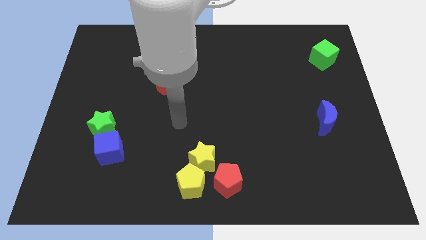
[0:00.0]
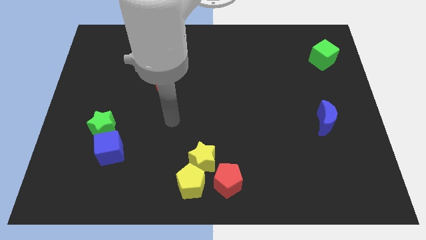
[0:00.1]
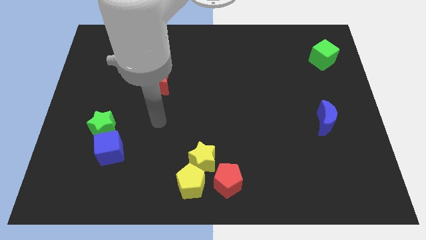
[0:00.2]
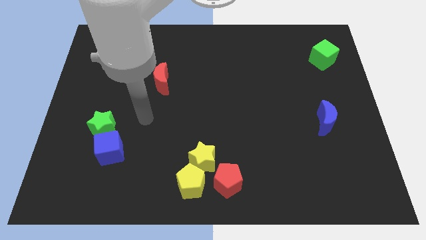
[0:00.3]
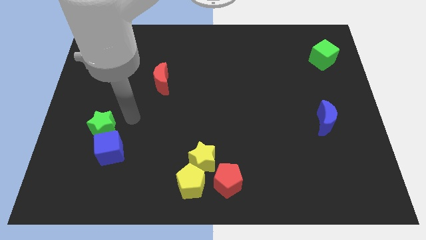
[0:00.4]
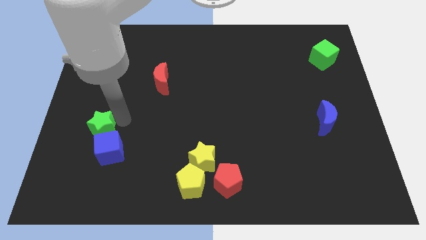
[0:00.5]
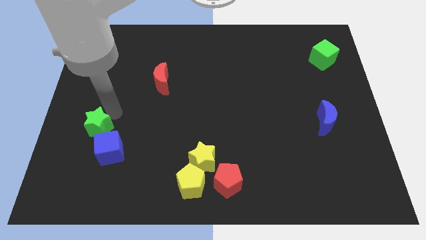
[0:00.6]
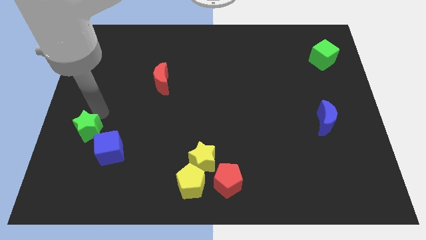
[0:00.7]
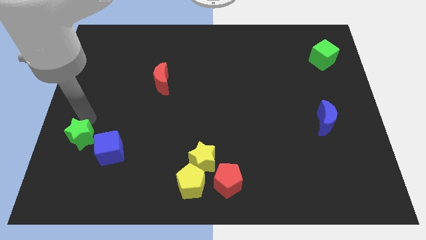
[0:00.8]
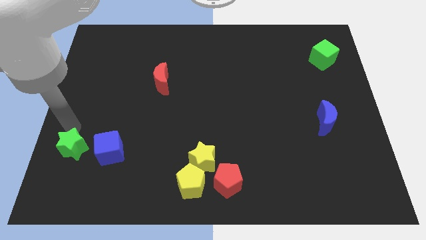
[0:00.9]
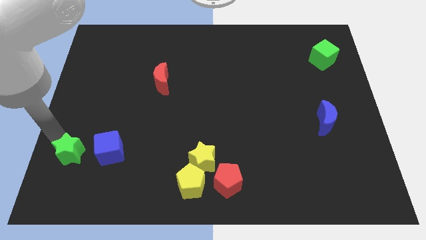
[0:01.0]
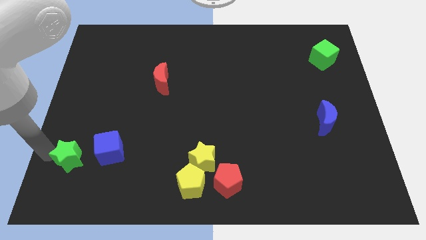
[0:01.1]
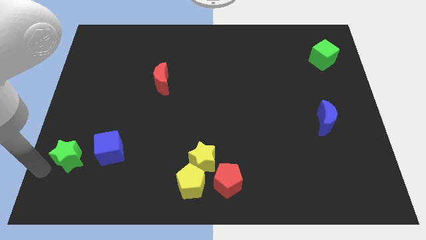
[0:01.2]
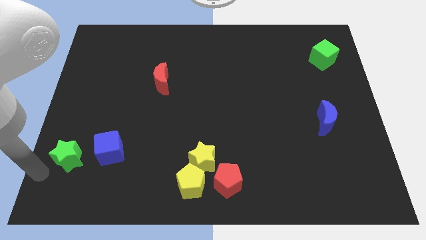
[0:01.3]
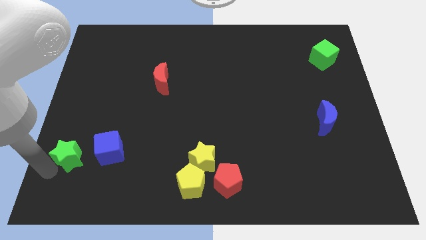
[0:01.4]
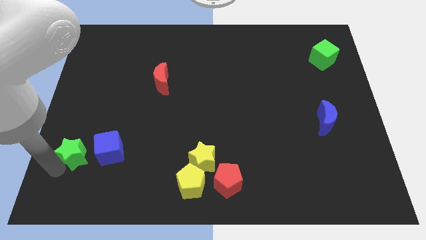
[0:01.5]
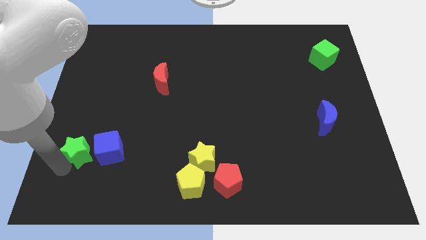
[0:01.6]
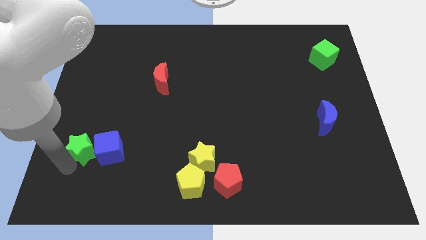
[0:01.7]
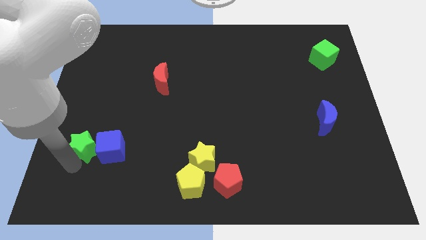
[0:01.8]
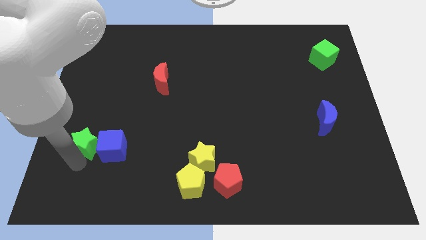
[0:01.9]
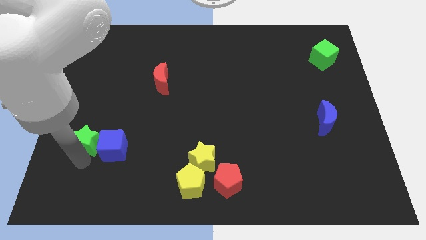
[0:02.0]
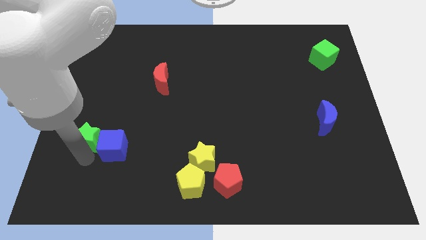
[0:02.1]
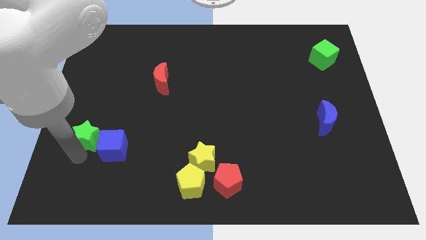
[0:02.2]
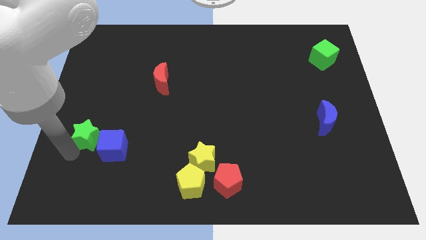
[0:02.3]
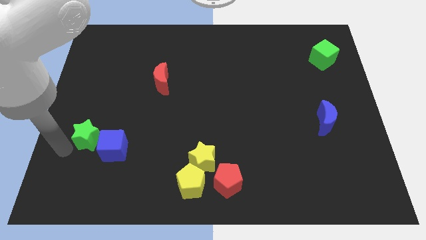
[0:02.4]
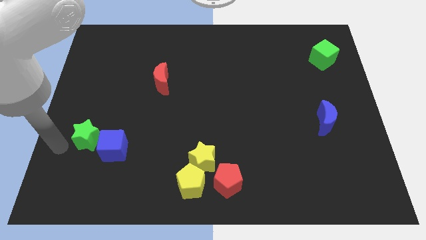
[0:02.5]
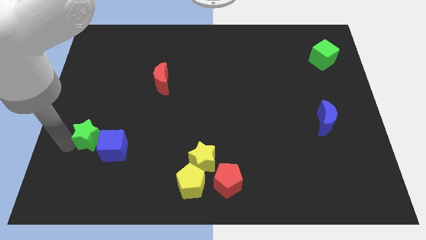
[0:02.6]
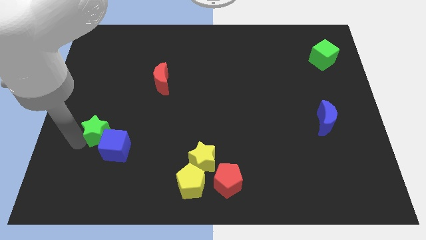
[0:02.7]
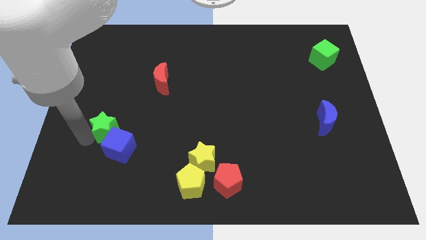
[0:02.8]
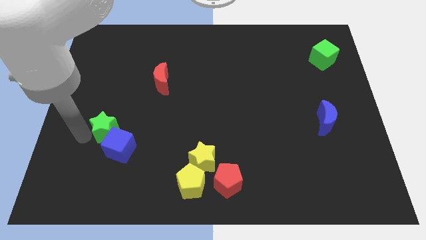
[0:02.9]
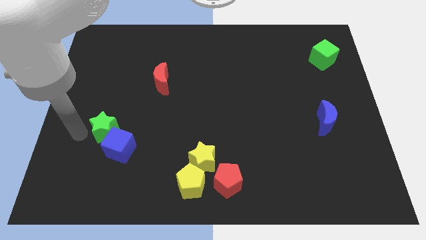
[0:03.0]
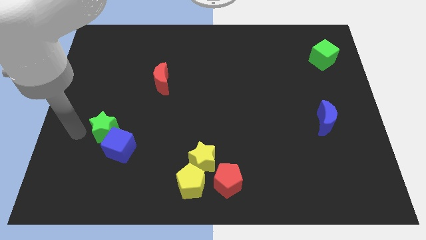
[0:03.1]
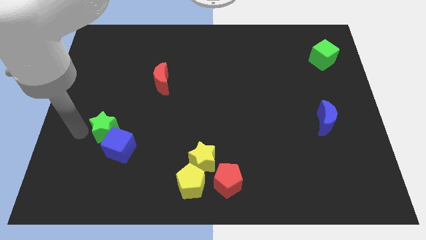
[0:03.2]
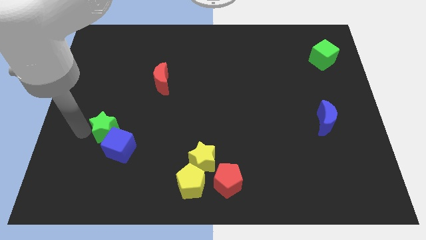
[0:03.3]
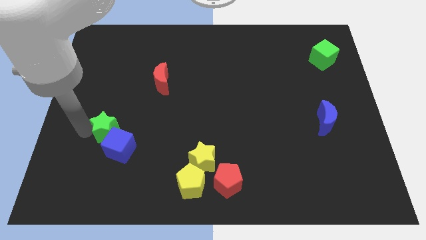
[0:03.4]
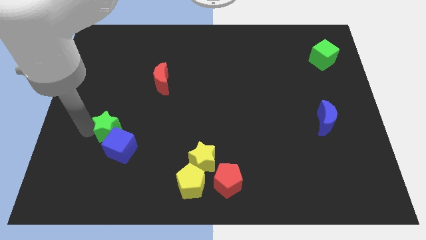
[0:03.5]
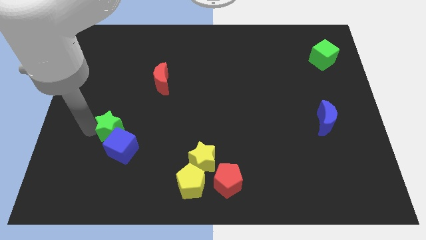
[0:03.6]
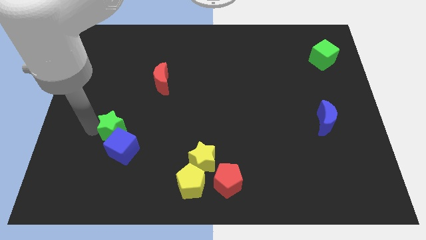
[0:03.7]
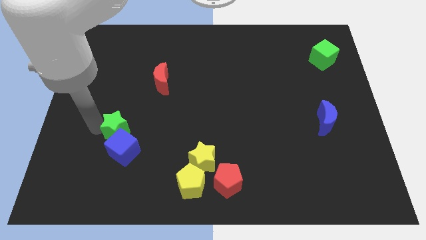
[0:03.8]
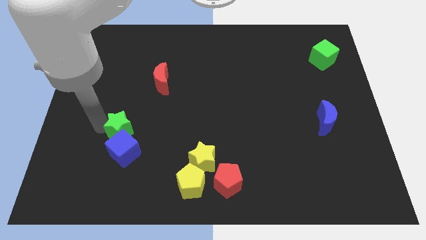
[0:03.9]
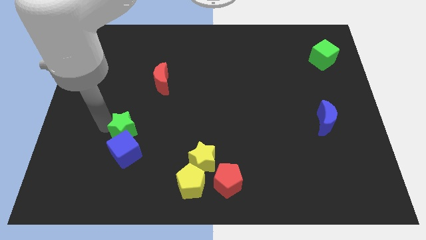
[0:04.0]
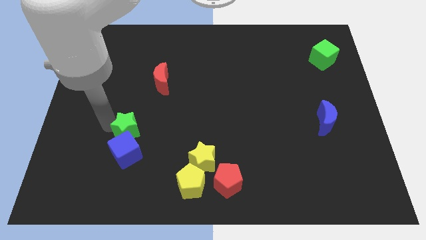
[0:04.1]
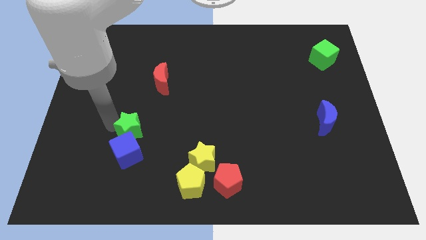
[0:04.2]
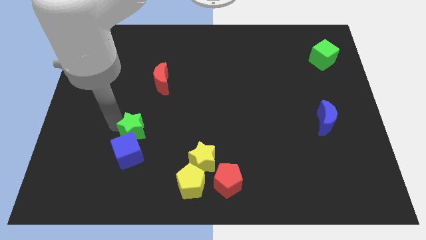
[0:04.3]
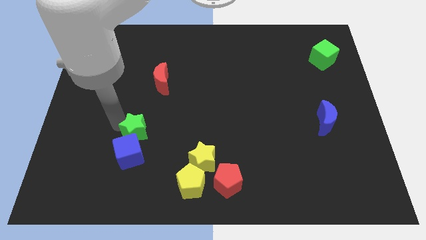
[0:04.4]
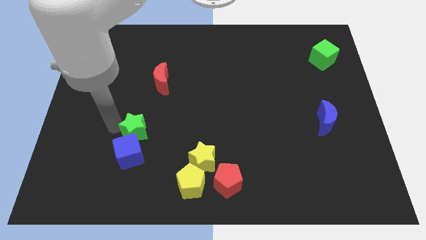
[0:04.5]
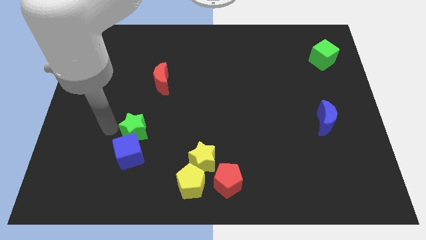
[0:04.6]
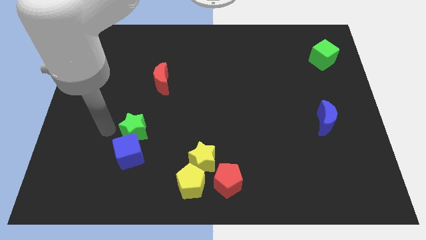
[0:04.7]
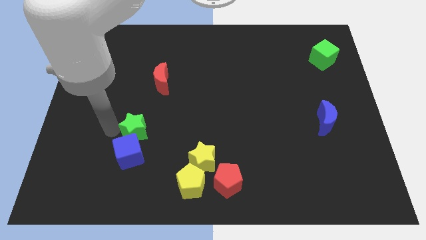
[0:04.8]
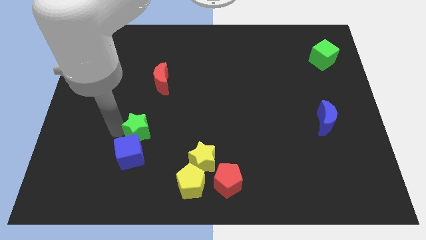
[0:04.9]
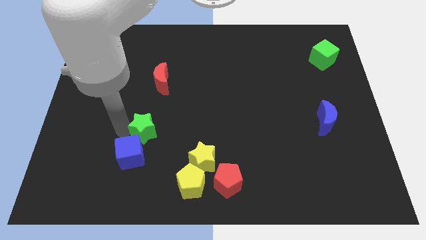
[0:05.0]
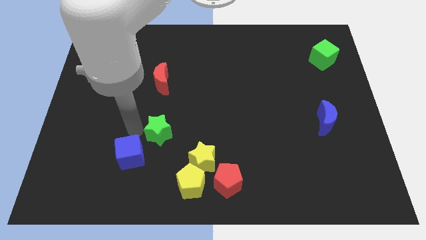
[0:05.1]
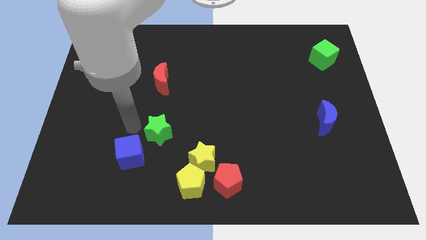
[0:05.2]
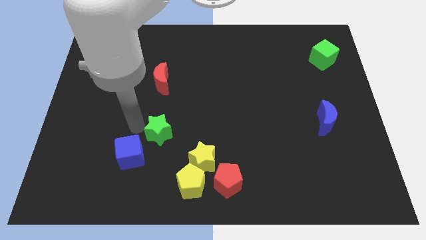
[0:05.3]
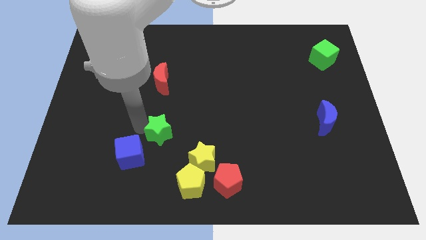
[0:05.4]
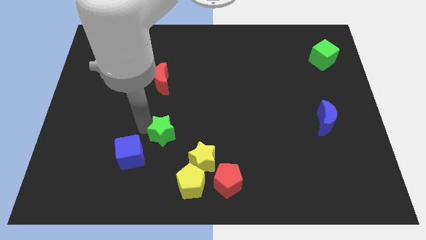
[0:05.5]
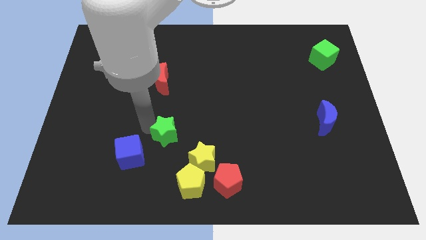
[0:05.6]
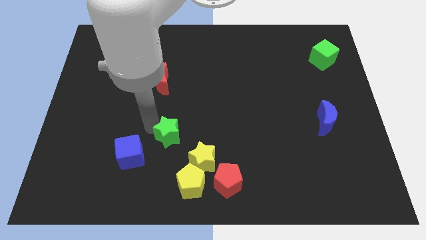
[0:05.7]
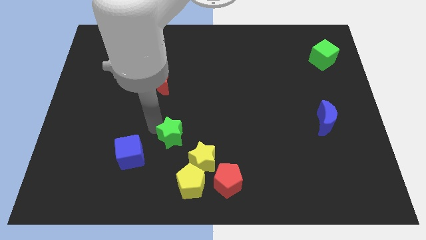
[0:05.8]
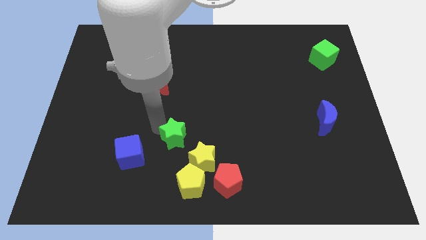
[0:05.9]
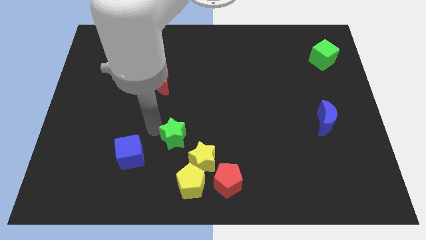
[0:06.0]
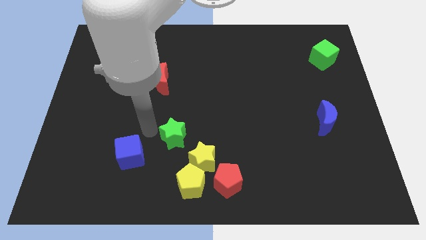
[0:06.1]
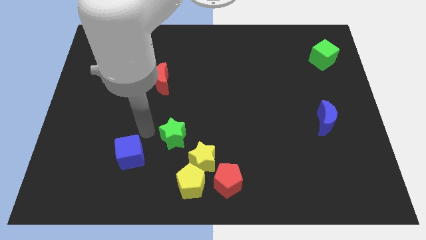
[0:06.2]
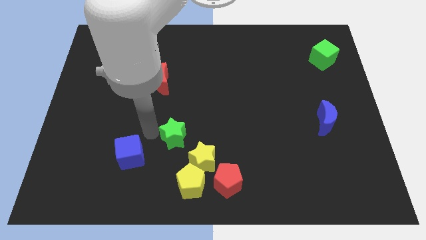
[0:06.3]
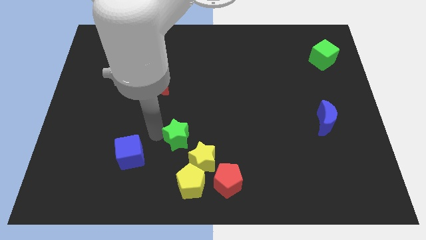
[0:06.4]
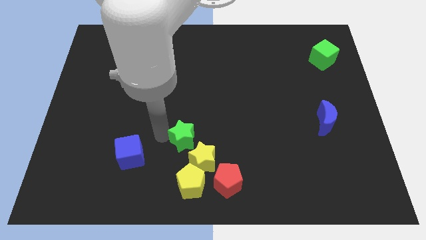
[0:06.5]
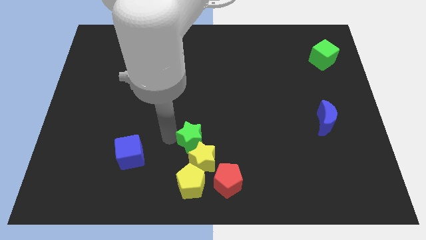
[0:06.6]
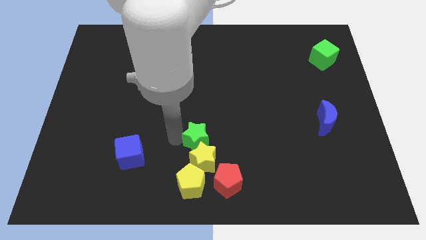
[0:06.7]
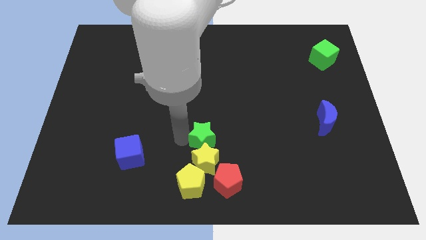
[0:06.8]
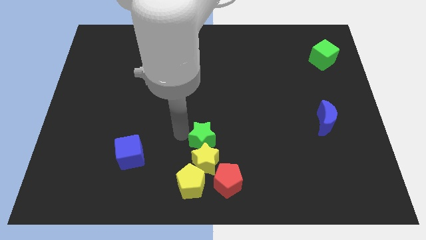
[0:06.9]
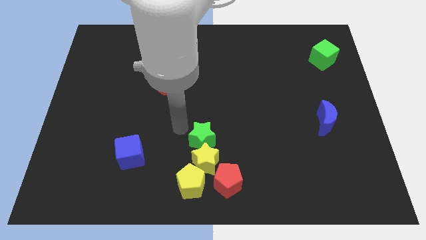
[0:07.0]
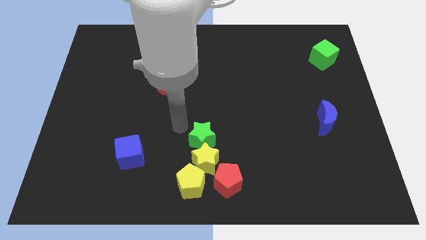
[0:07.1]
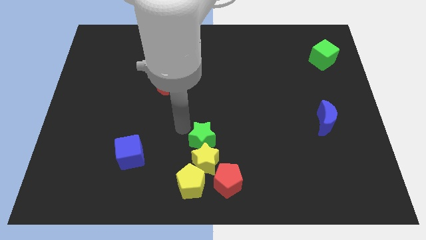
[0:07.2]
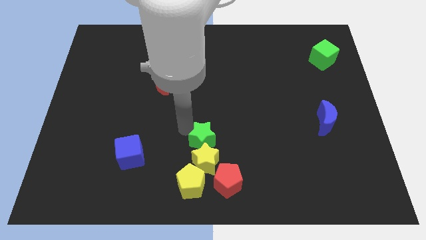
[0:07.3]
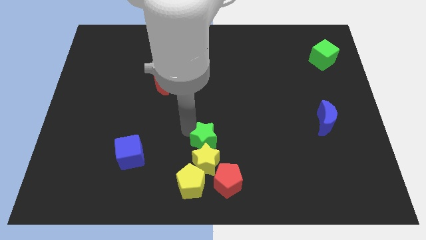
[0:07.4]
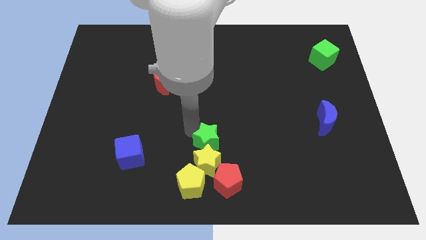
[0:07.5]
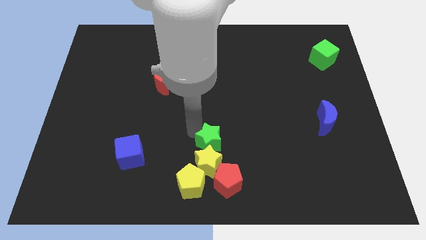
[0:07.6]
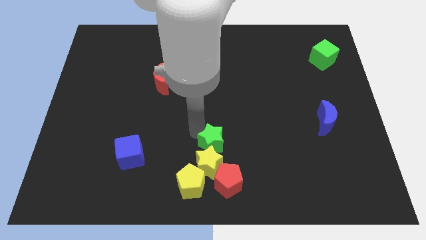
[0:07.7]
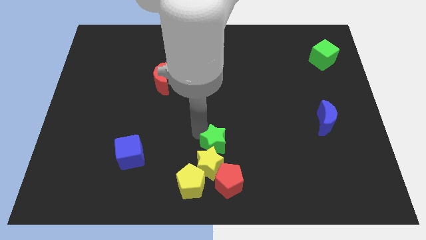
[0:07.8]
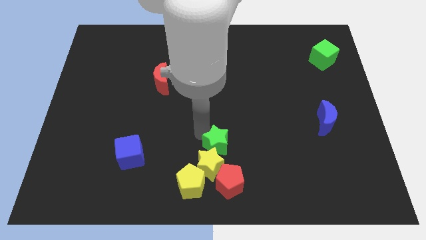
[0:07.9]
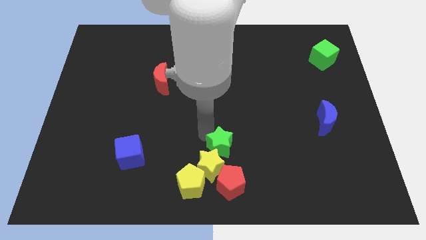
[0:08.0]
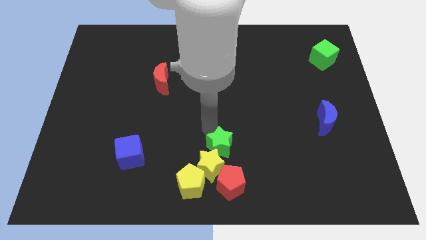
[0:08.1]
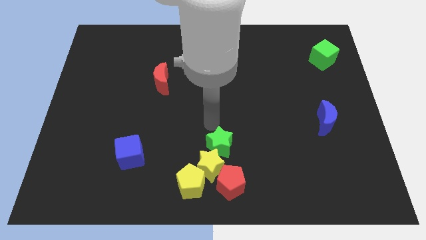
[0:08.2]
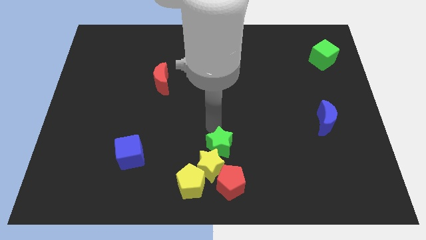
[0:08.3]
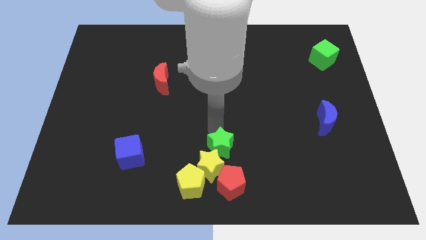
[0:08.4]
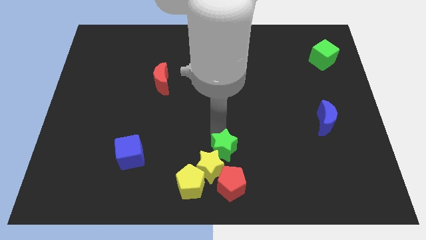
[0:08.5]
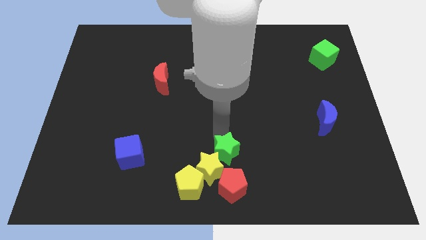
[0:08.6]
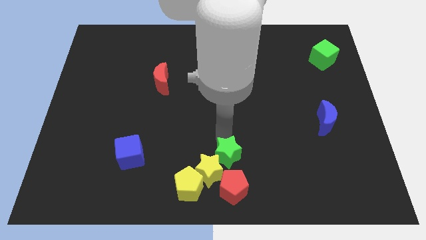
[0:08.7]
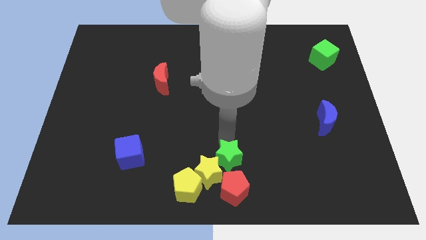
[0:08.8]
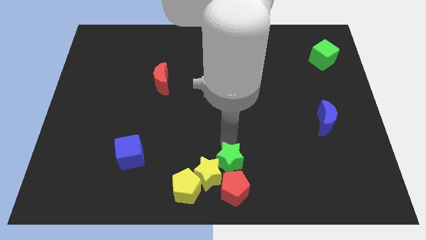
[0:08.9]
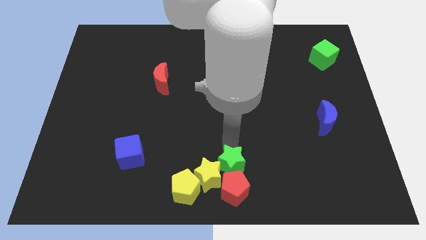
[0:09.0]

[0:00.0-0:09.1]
push the green star close to the red pentagon
